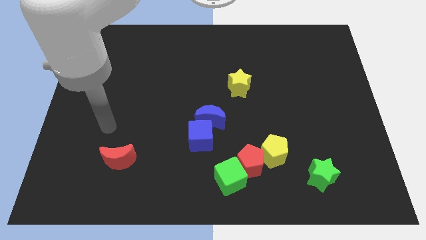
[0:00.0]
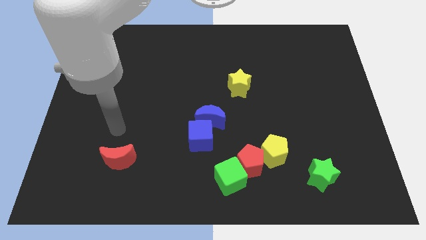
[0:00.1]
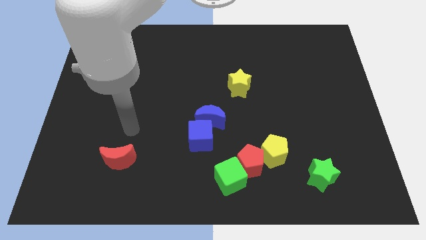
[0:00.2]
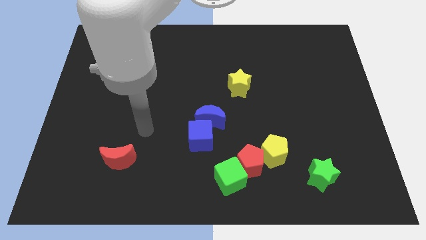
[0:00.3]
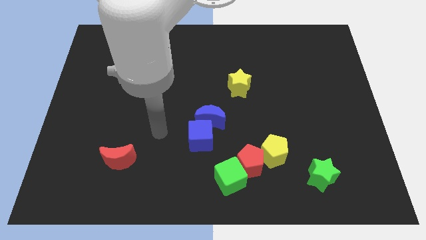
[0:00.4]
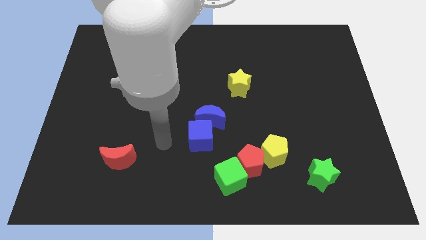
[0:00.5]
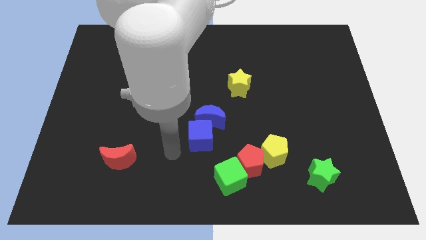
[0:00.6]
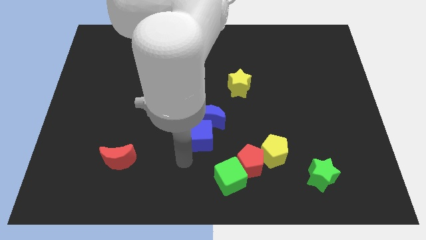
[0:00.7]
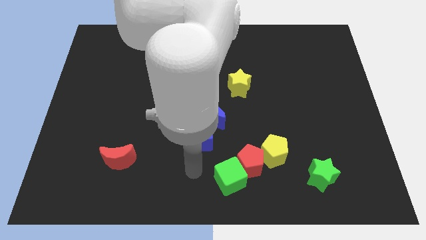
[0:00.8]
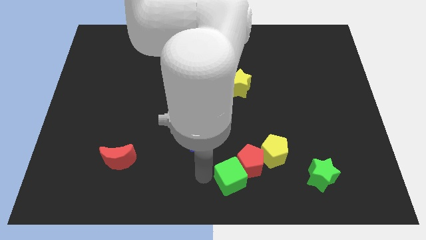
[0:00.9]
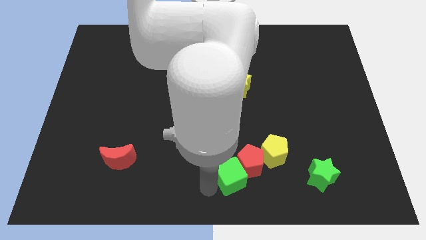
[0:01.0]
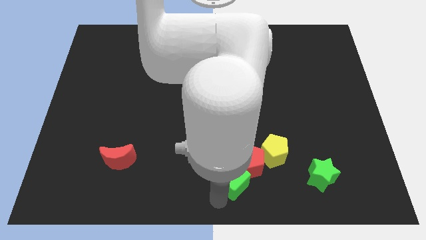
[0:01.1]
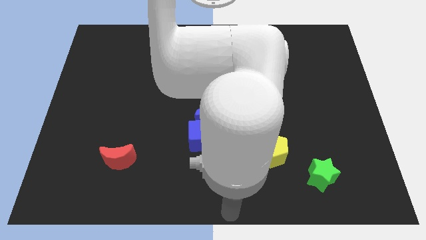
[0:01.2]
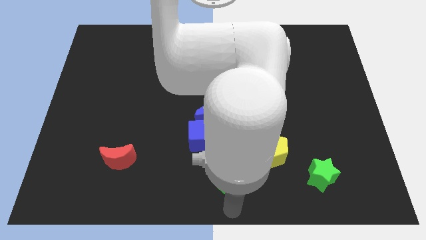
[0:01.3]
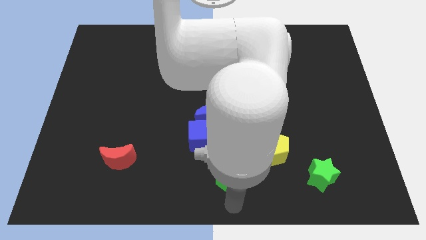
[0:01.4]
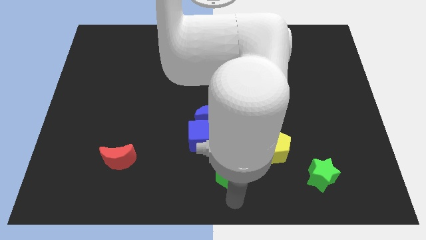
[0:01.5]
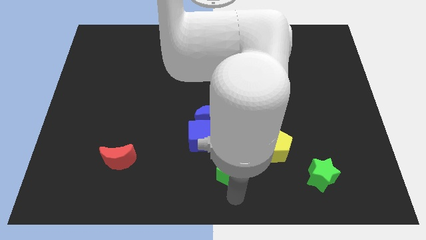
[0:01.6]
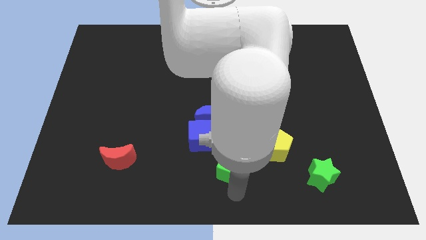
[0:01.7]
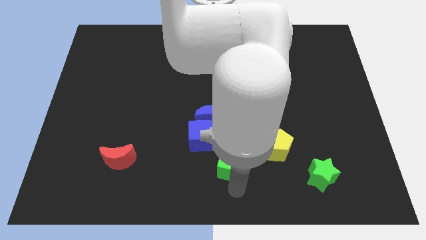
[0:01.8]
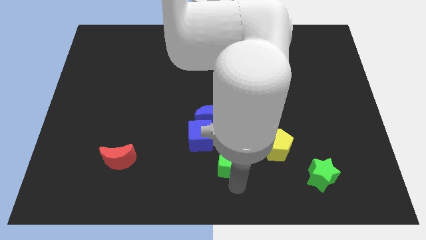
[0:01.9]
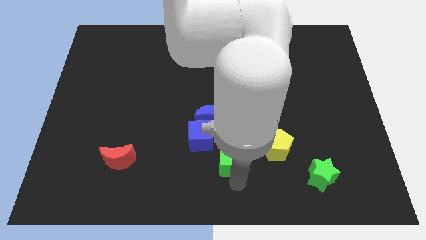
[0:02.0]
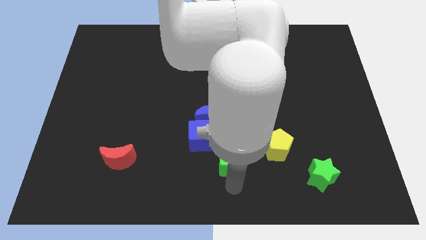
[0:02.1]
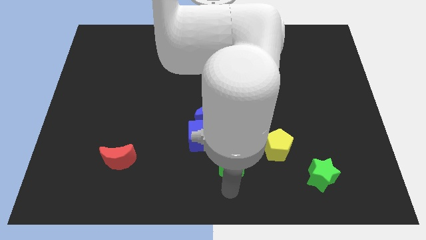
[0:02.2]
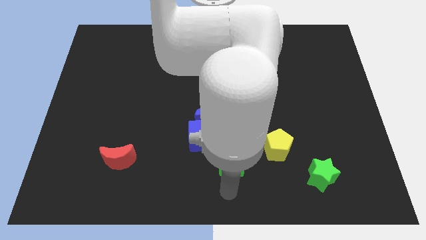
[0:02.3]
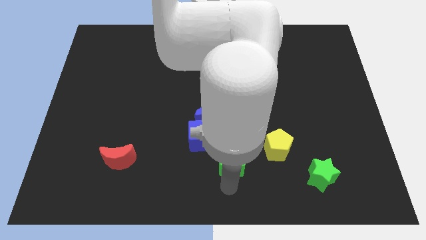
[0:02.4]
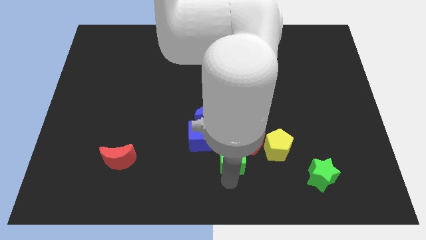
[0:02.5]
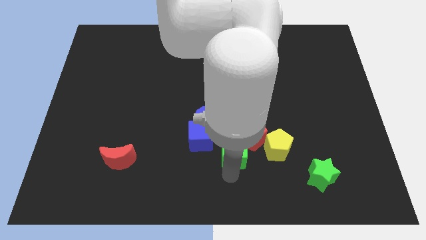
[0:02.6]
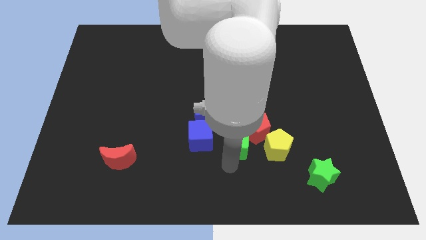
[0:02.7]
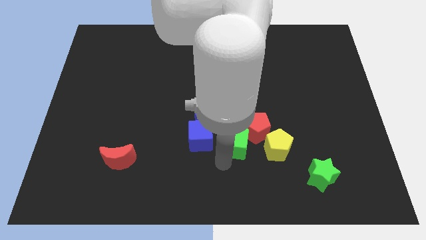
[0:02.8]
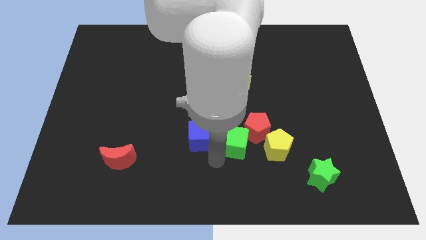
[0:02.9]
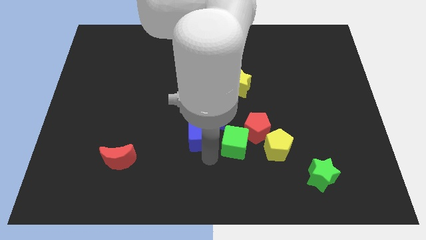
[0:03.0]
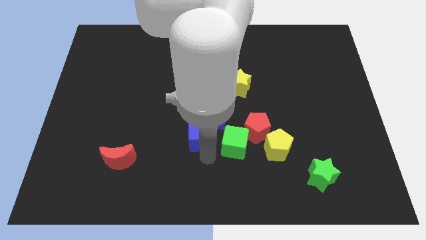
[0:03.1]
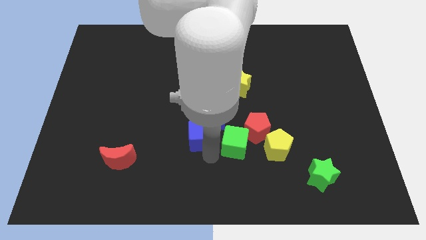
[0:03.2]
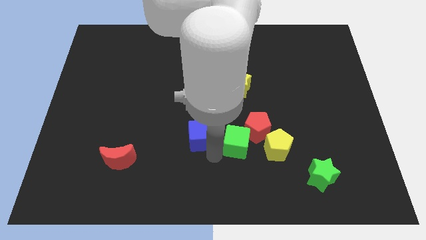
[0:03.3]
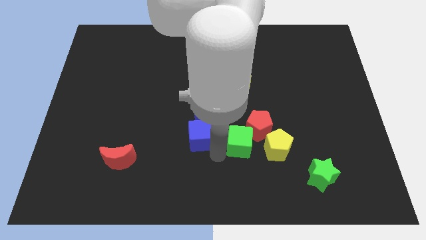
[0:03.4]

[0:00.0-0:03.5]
move the green cube upwards and to the right a little

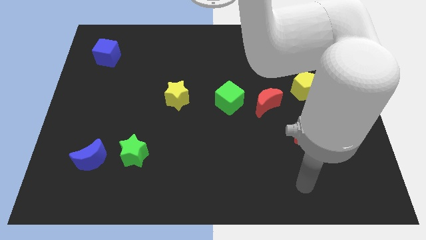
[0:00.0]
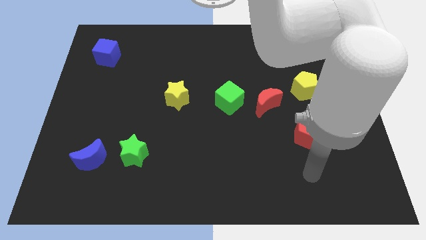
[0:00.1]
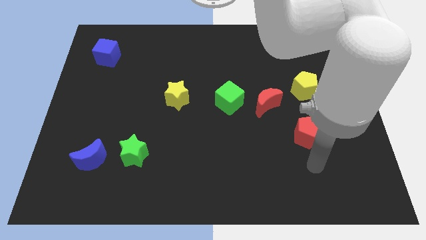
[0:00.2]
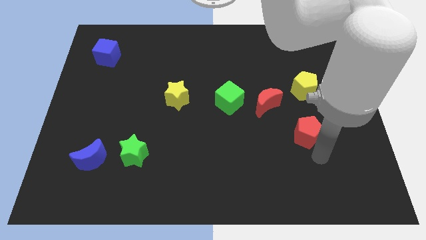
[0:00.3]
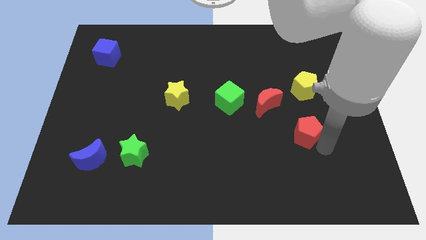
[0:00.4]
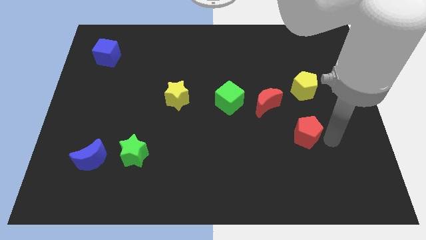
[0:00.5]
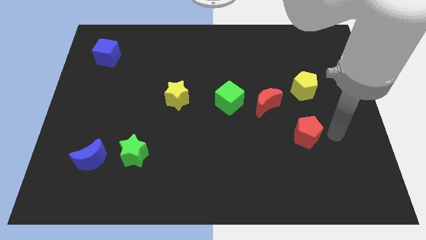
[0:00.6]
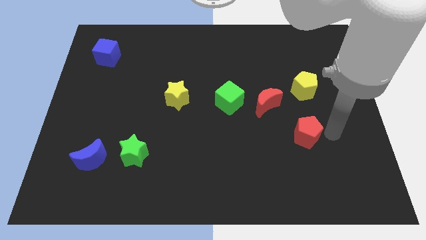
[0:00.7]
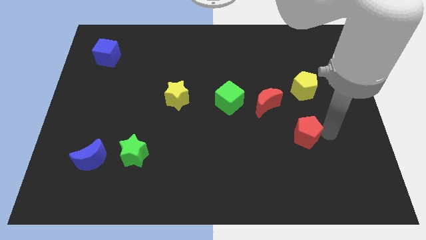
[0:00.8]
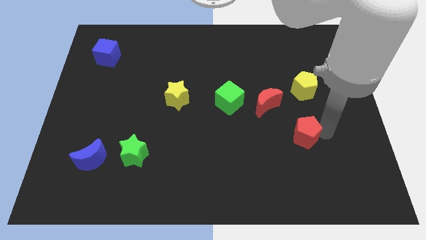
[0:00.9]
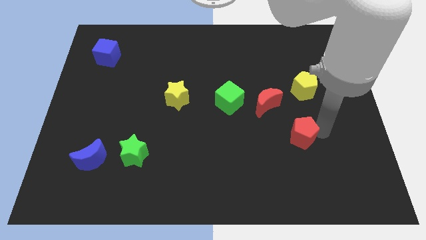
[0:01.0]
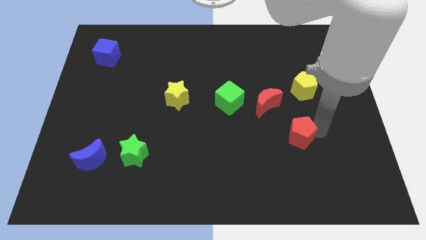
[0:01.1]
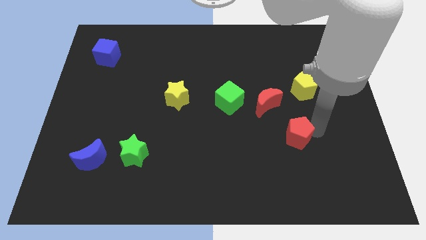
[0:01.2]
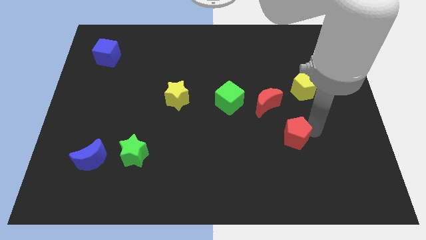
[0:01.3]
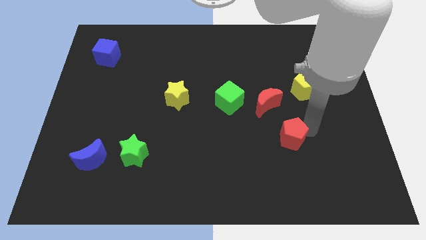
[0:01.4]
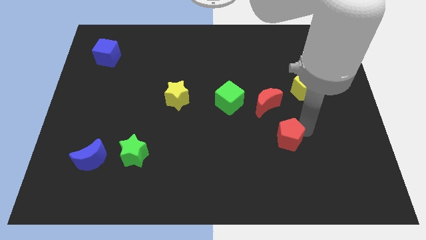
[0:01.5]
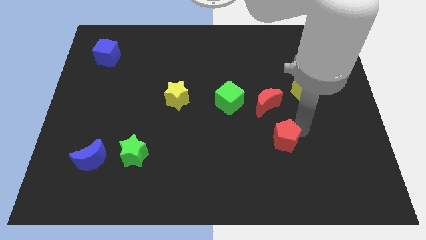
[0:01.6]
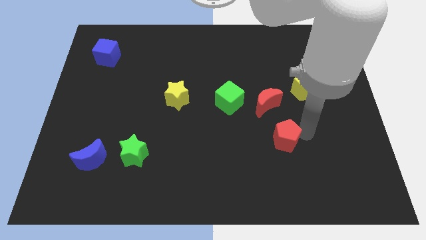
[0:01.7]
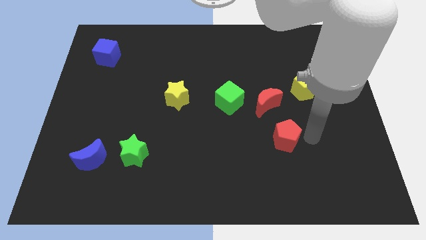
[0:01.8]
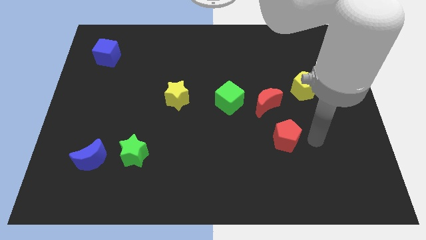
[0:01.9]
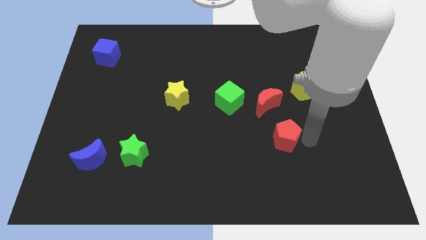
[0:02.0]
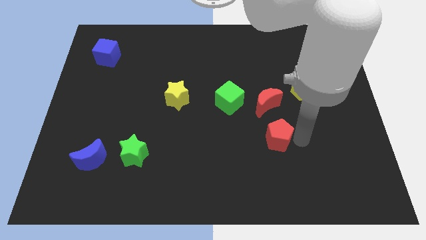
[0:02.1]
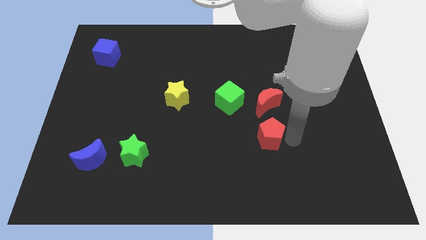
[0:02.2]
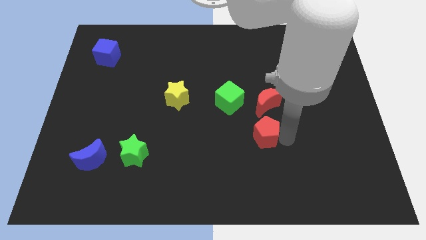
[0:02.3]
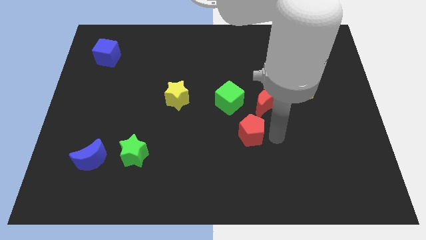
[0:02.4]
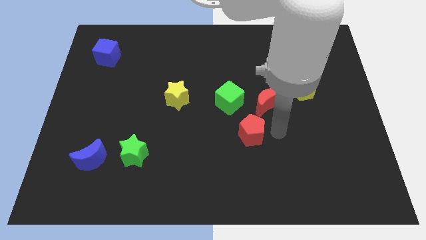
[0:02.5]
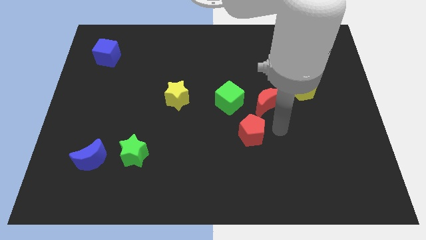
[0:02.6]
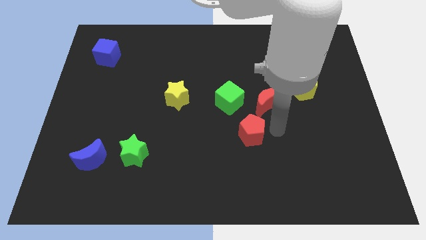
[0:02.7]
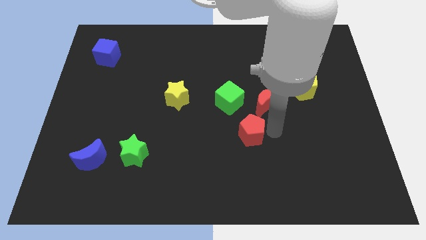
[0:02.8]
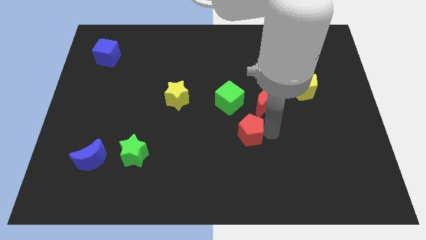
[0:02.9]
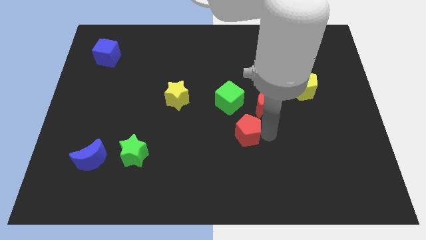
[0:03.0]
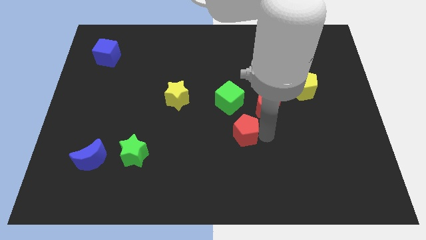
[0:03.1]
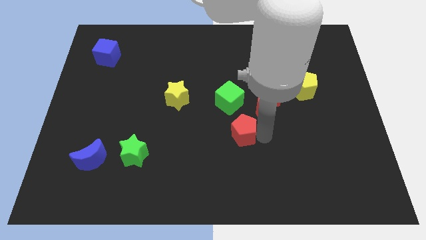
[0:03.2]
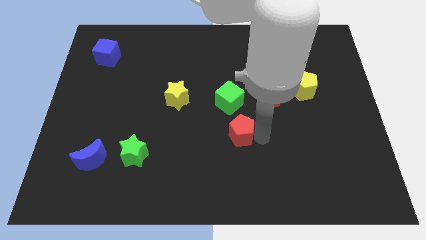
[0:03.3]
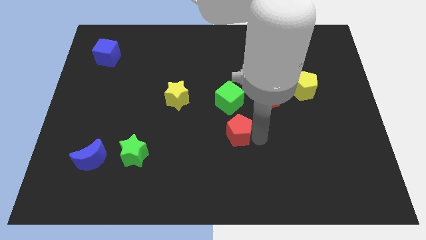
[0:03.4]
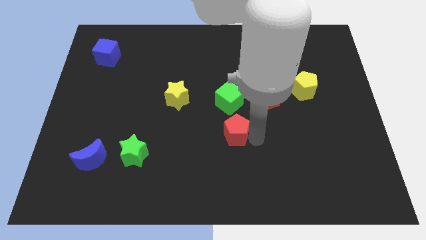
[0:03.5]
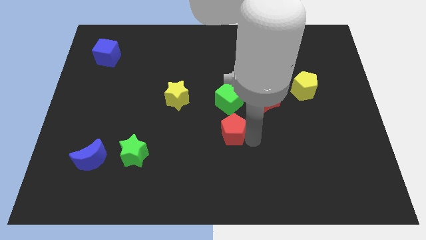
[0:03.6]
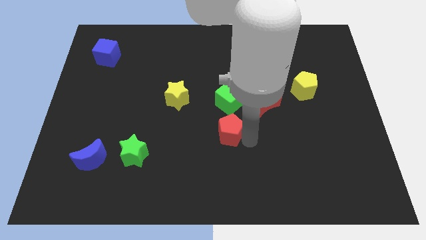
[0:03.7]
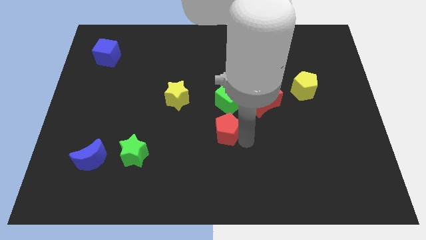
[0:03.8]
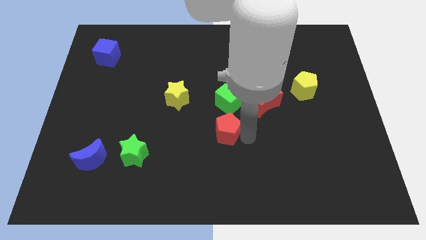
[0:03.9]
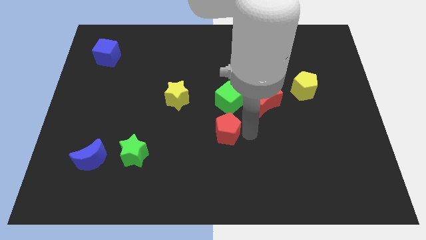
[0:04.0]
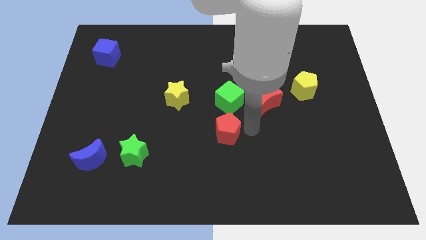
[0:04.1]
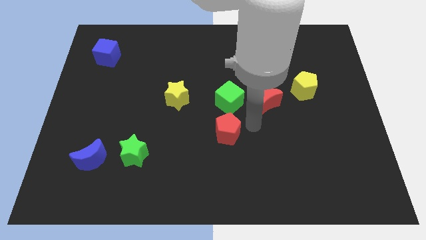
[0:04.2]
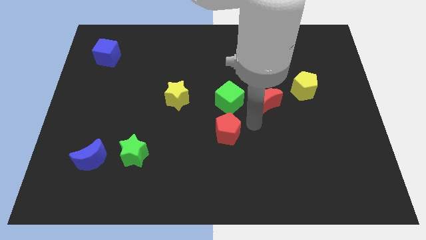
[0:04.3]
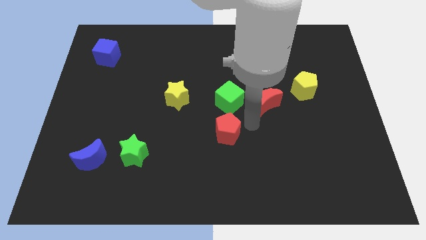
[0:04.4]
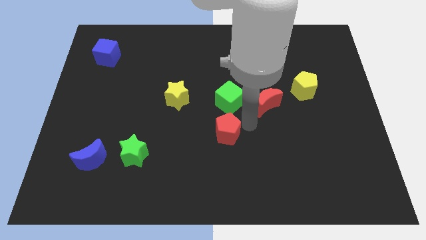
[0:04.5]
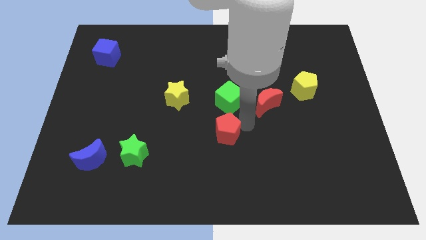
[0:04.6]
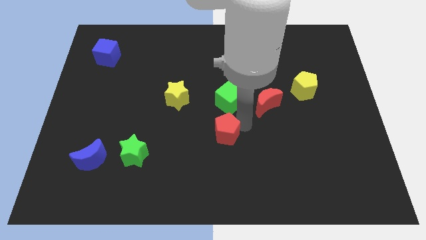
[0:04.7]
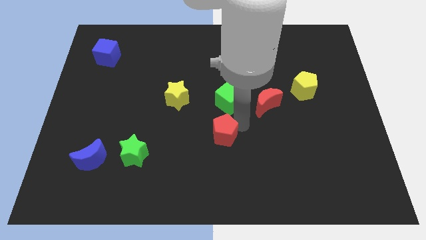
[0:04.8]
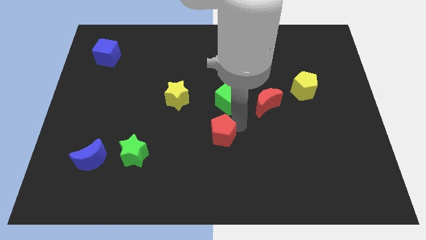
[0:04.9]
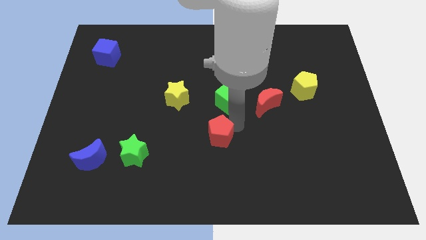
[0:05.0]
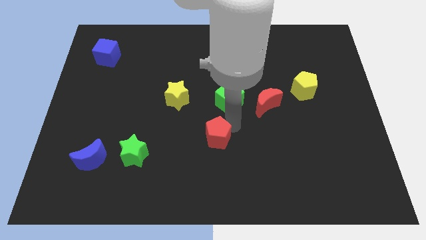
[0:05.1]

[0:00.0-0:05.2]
slide the red pentagon left
